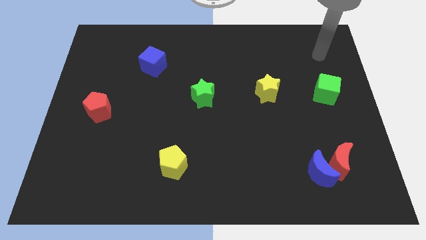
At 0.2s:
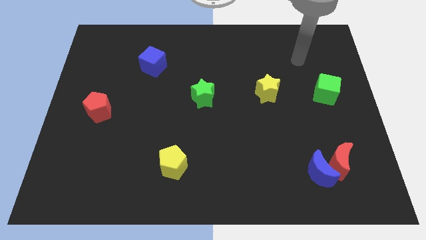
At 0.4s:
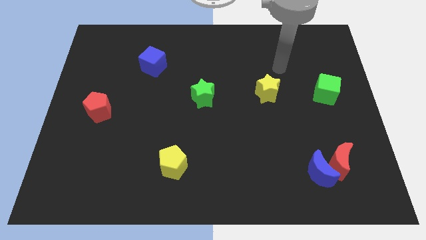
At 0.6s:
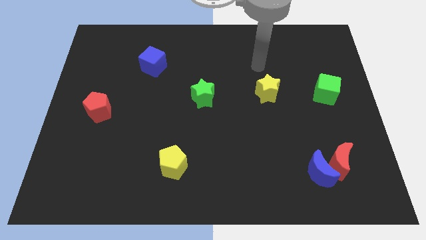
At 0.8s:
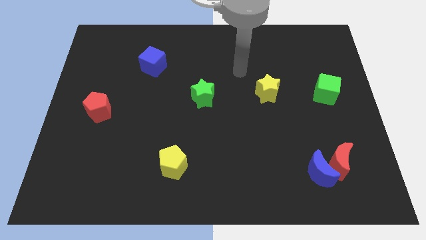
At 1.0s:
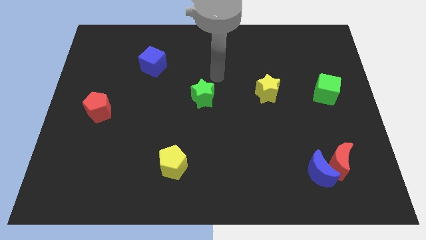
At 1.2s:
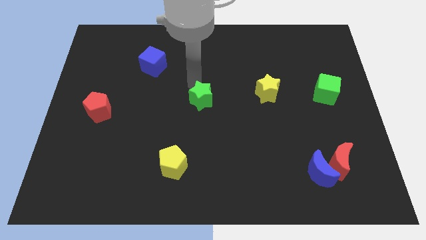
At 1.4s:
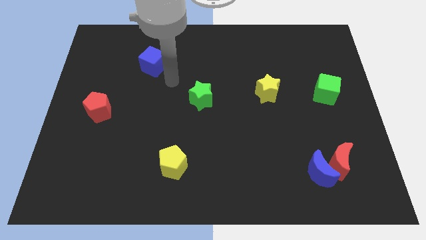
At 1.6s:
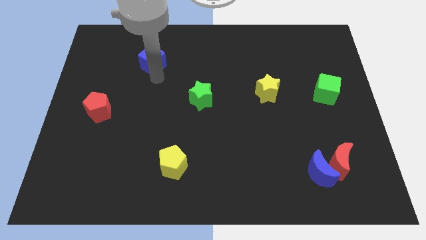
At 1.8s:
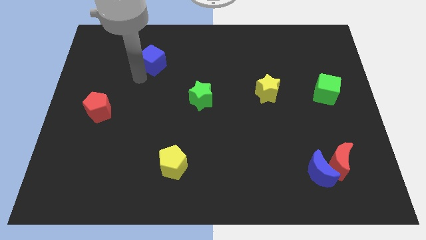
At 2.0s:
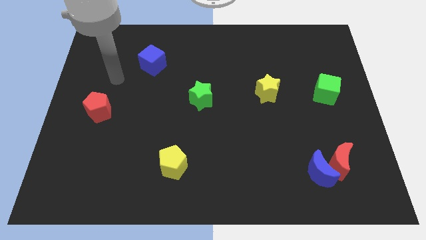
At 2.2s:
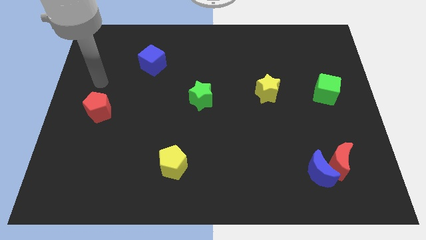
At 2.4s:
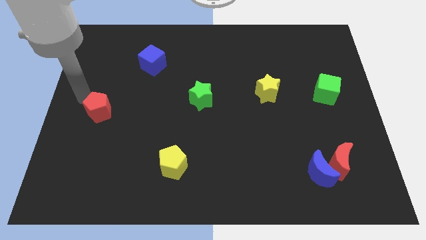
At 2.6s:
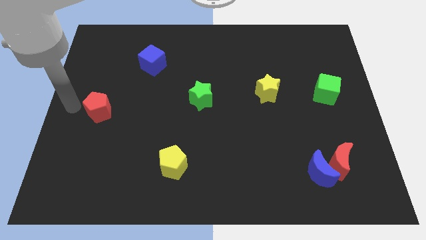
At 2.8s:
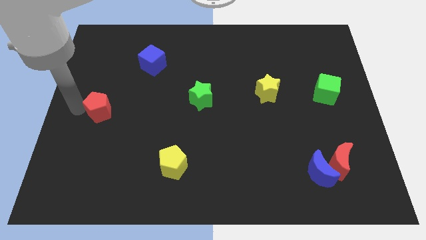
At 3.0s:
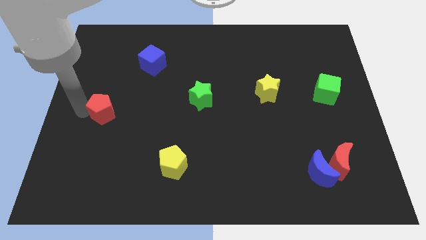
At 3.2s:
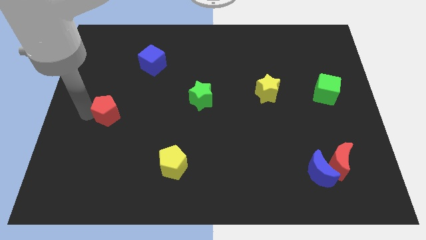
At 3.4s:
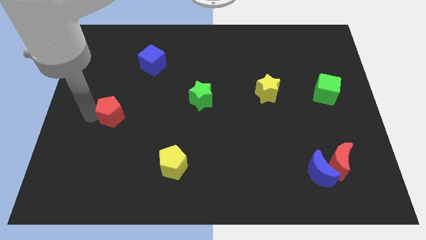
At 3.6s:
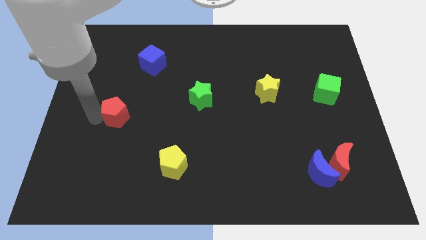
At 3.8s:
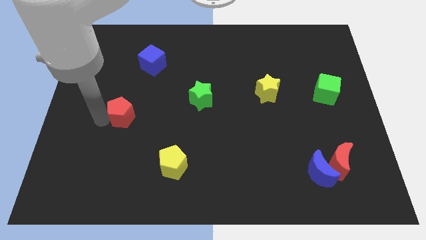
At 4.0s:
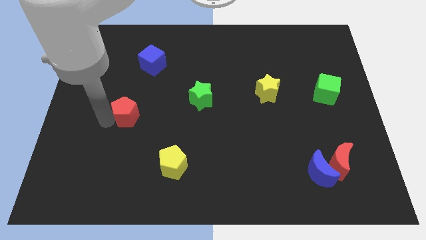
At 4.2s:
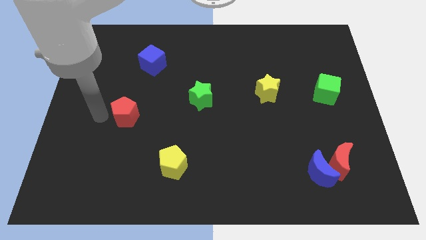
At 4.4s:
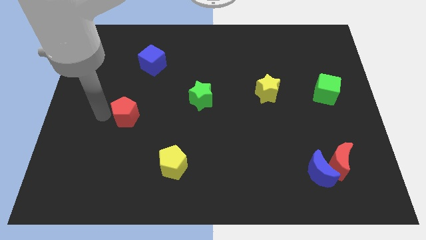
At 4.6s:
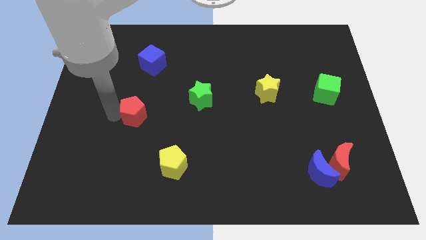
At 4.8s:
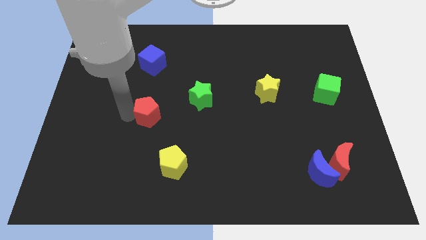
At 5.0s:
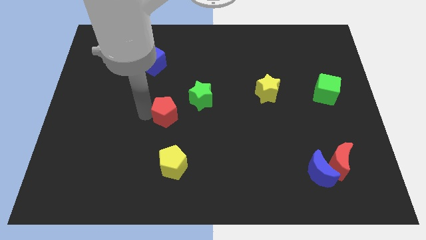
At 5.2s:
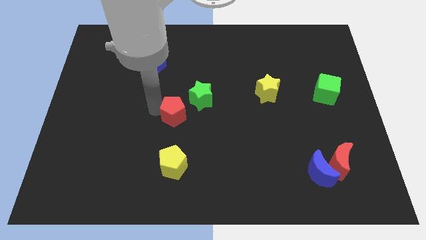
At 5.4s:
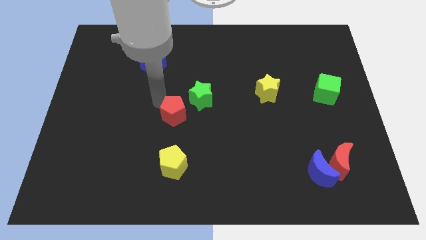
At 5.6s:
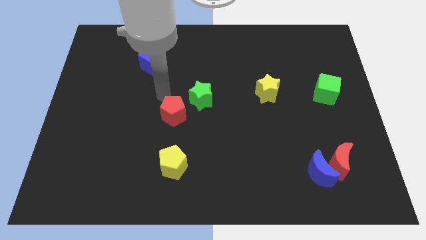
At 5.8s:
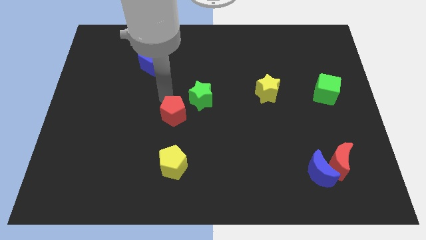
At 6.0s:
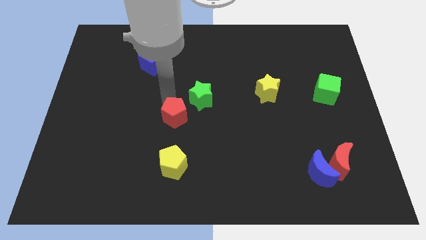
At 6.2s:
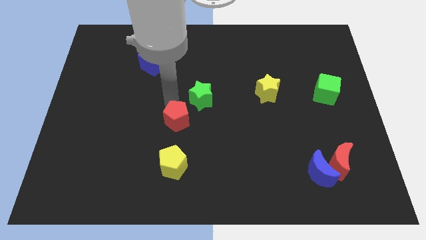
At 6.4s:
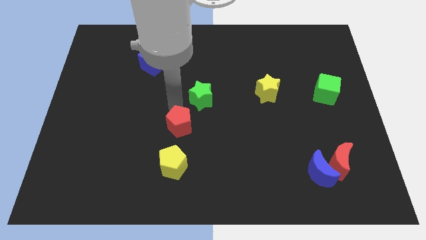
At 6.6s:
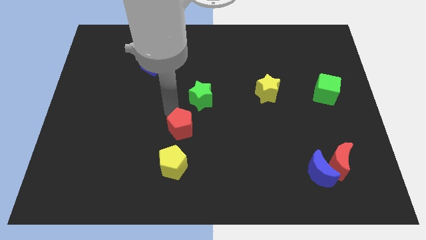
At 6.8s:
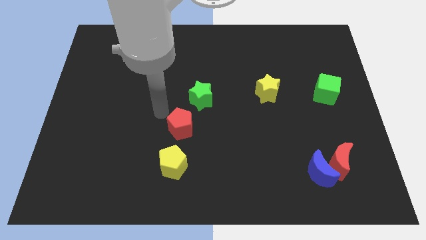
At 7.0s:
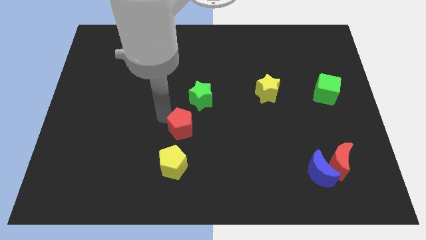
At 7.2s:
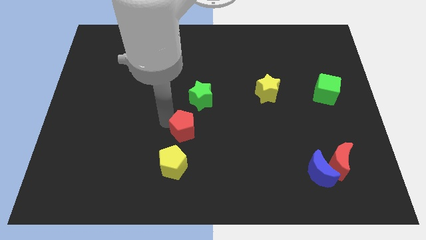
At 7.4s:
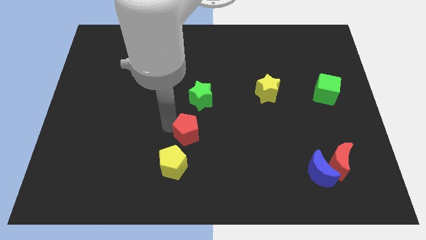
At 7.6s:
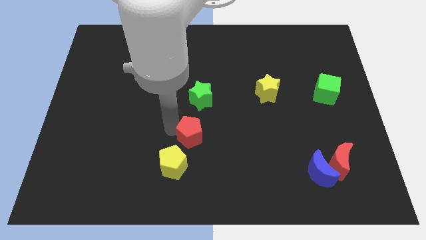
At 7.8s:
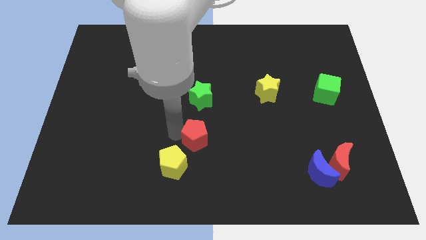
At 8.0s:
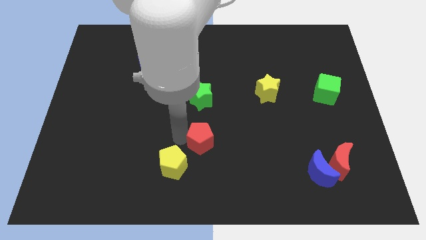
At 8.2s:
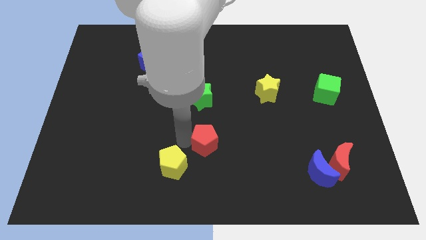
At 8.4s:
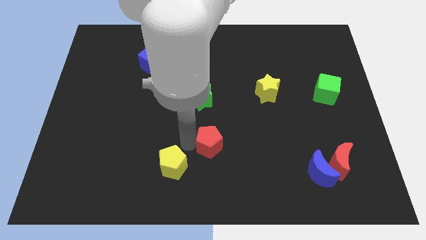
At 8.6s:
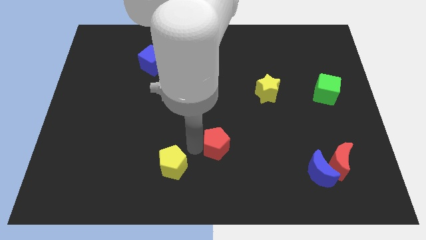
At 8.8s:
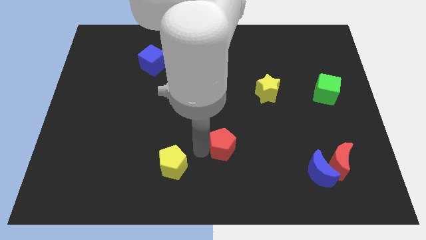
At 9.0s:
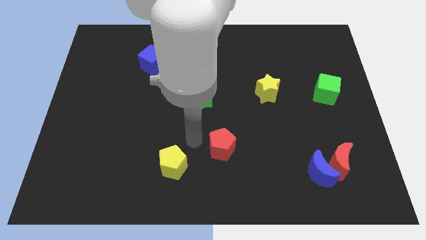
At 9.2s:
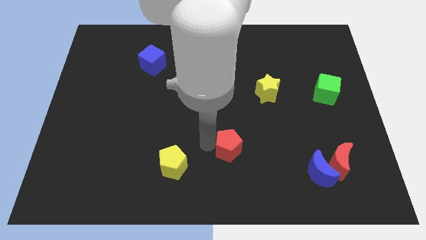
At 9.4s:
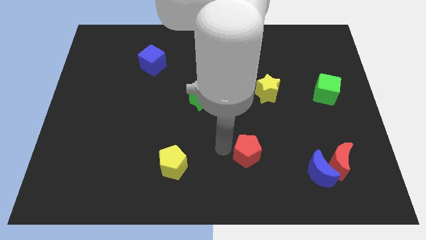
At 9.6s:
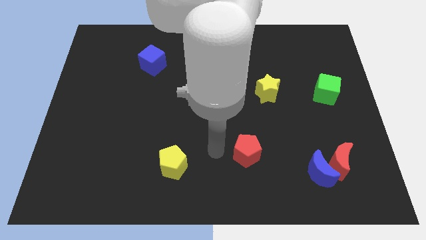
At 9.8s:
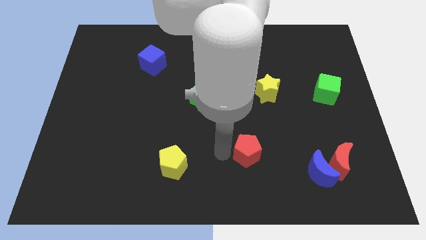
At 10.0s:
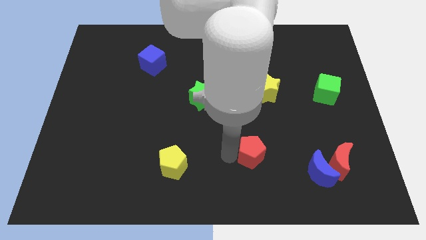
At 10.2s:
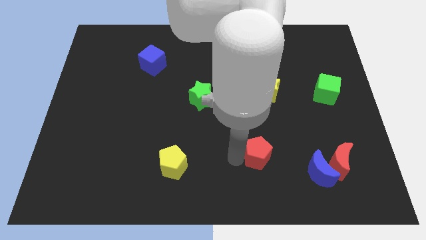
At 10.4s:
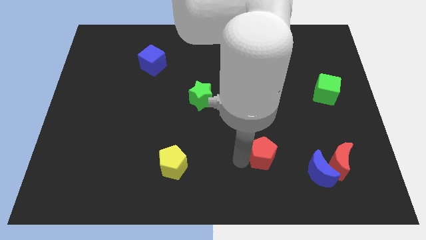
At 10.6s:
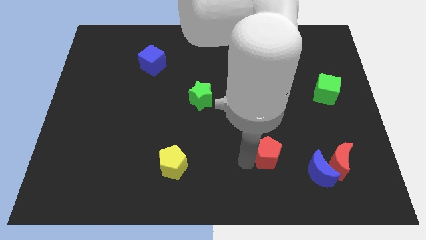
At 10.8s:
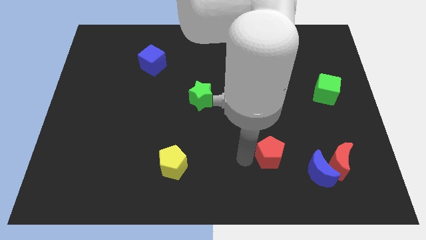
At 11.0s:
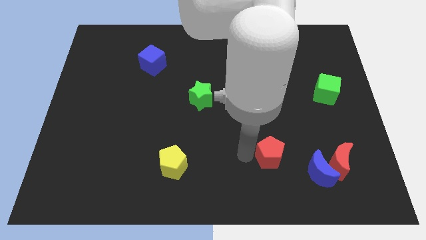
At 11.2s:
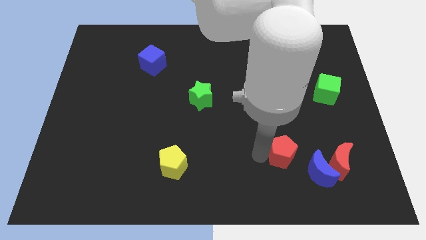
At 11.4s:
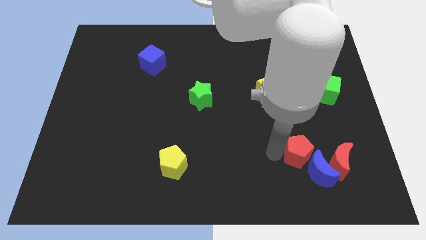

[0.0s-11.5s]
move the red pentagon close to the blue moon

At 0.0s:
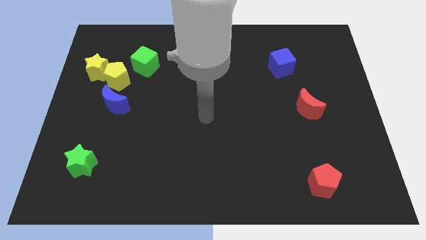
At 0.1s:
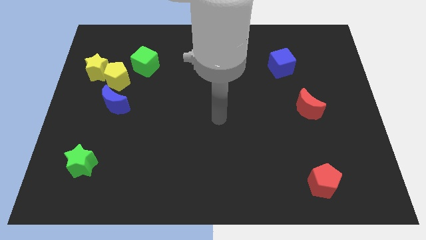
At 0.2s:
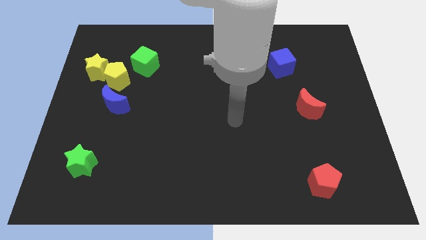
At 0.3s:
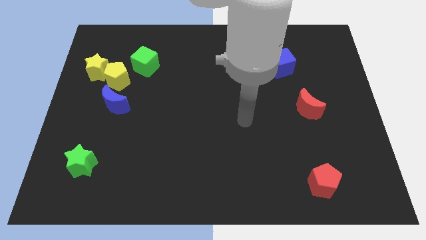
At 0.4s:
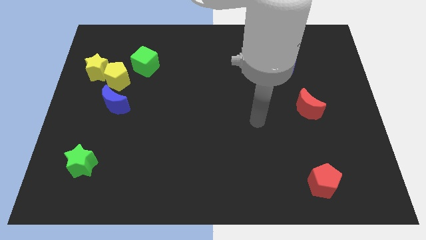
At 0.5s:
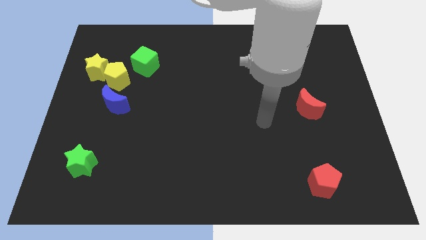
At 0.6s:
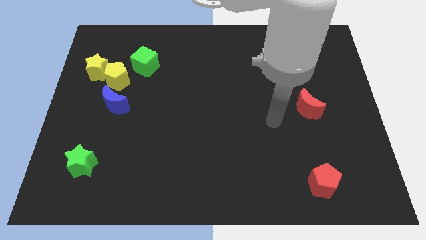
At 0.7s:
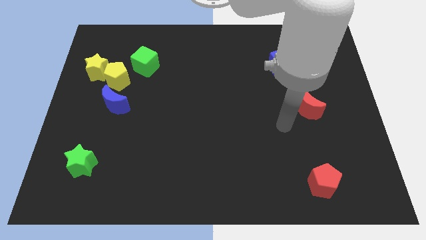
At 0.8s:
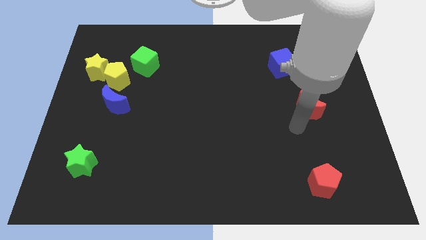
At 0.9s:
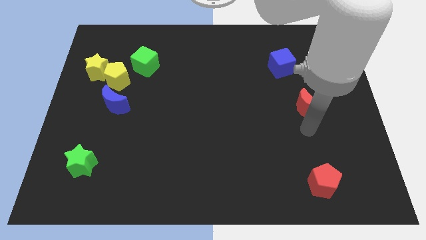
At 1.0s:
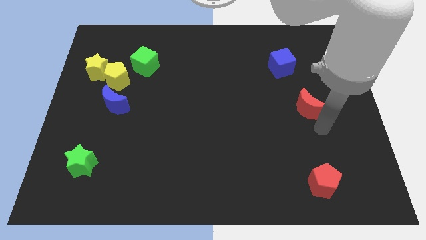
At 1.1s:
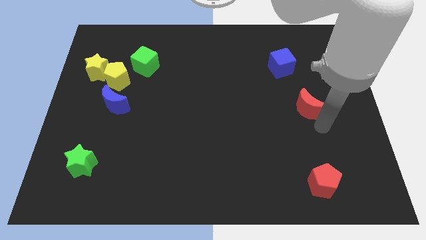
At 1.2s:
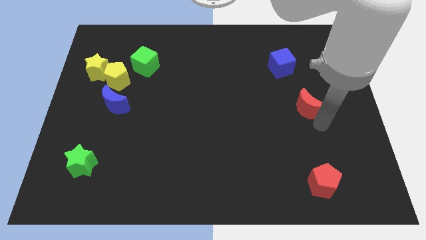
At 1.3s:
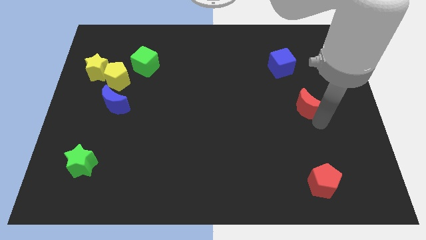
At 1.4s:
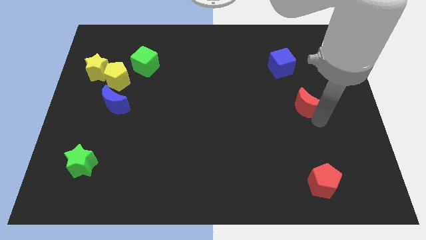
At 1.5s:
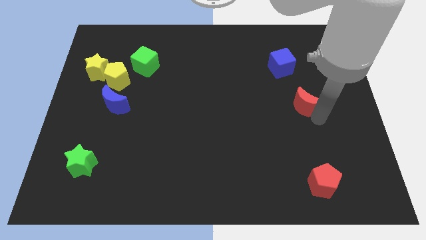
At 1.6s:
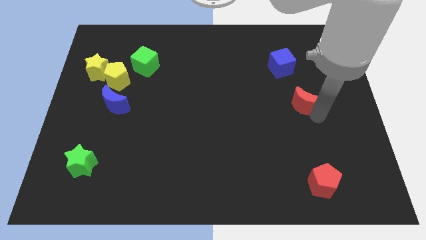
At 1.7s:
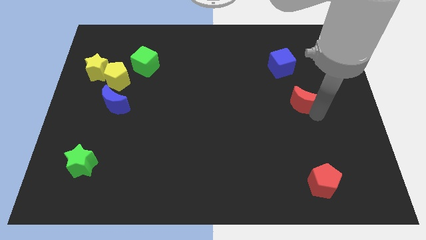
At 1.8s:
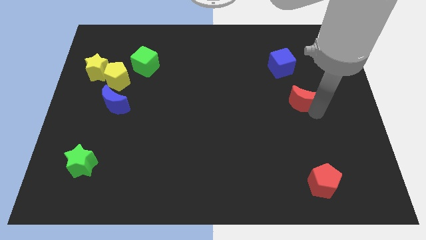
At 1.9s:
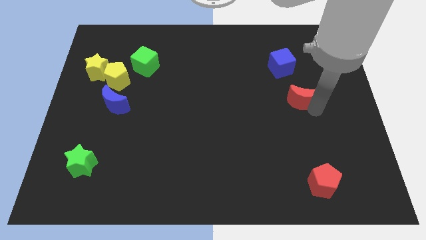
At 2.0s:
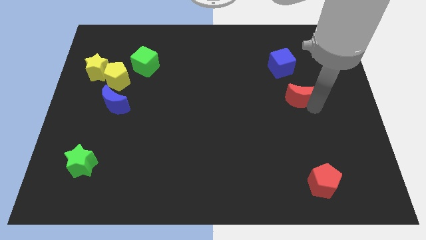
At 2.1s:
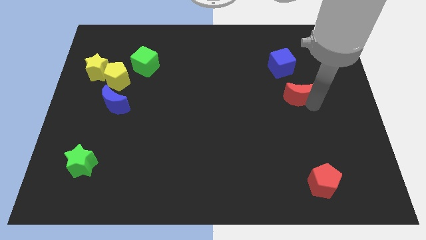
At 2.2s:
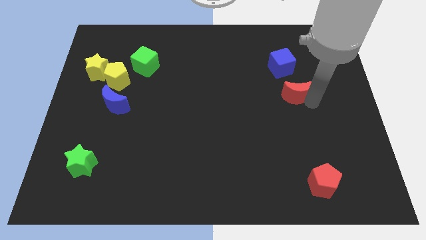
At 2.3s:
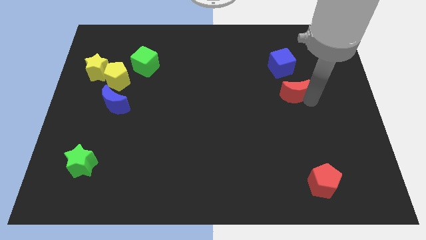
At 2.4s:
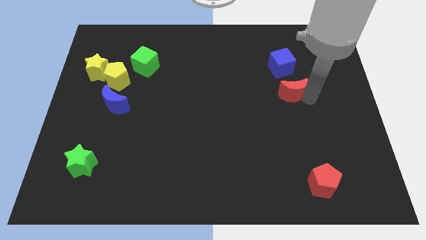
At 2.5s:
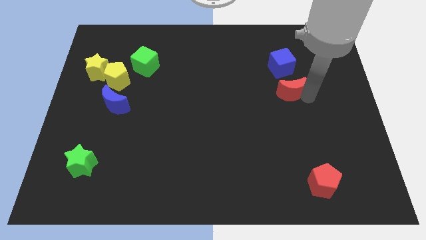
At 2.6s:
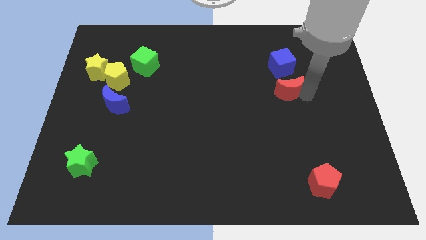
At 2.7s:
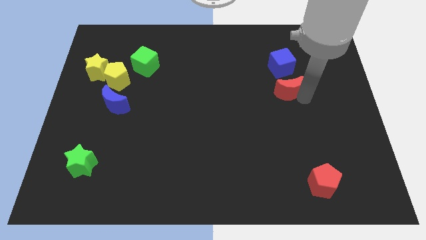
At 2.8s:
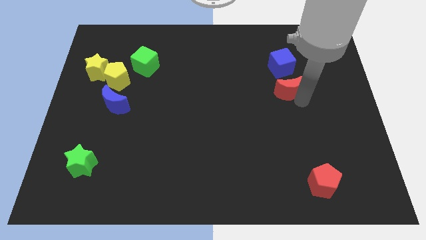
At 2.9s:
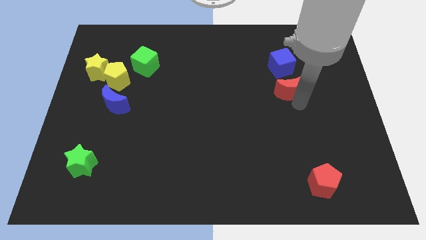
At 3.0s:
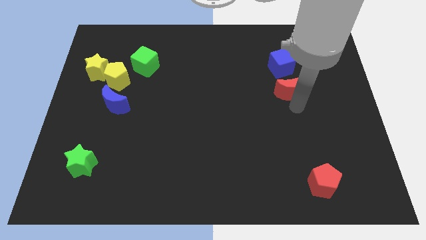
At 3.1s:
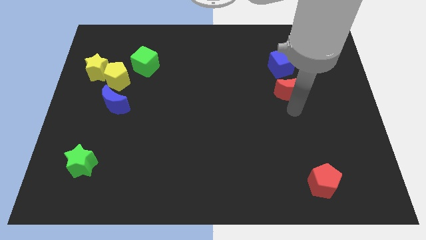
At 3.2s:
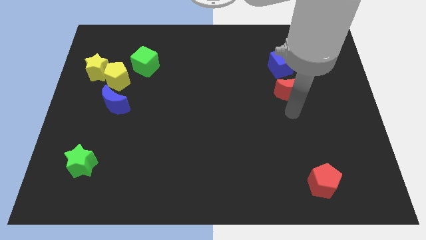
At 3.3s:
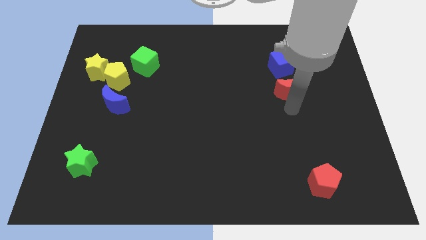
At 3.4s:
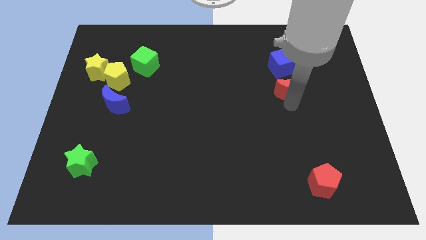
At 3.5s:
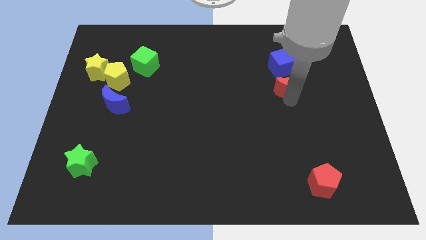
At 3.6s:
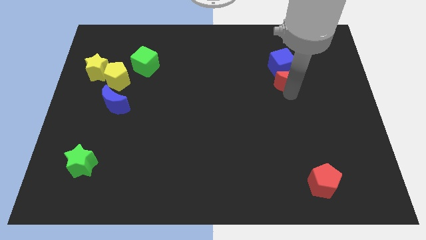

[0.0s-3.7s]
move the red moon to the blue cube
